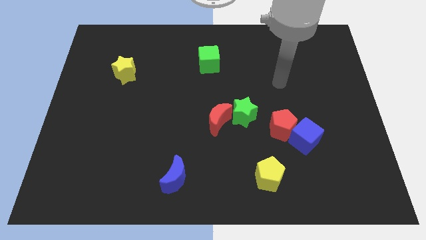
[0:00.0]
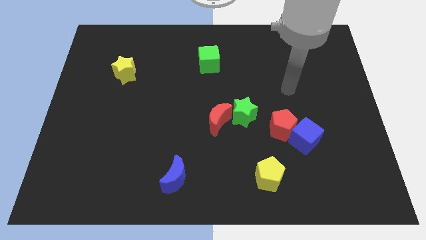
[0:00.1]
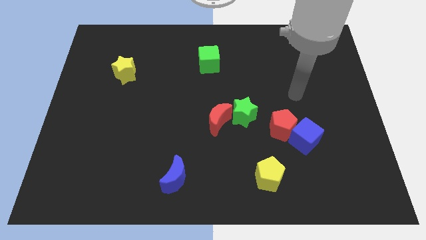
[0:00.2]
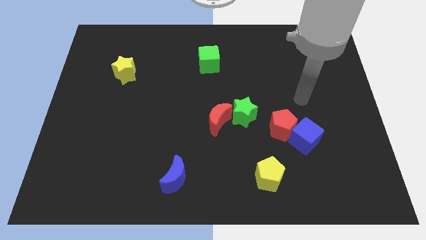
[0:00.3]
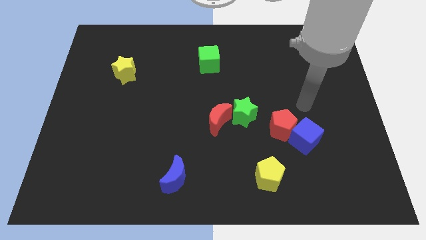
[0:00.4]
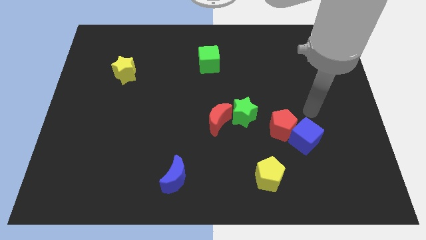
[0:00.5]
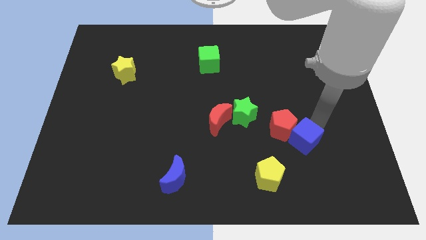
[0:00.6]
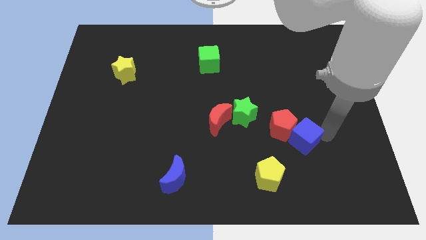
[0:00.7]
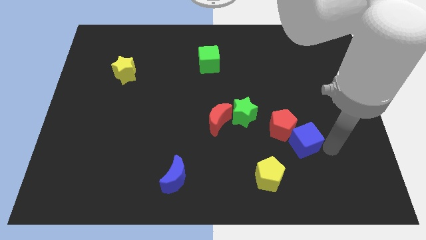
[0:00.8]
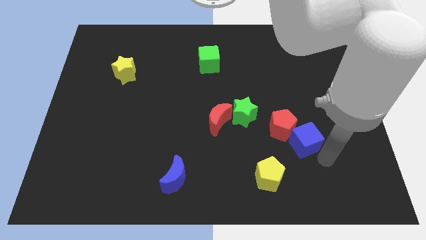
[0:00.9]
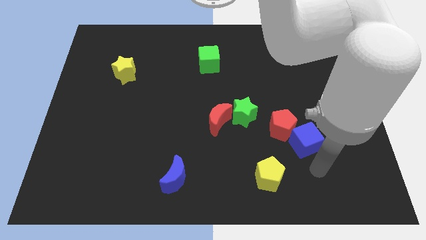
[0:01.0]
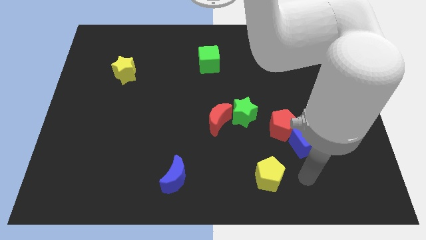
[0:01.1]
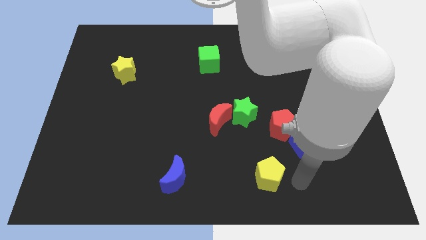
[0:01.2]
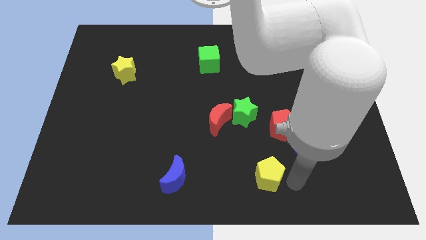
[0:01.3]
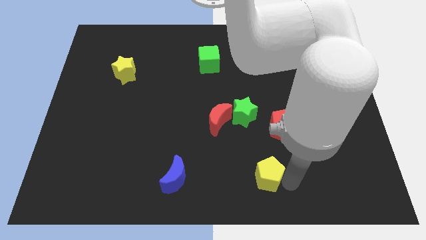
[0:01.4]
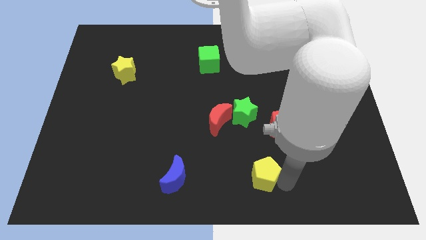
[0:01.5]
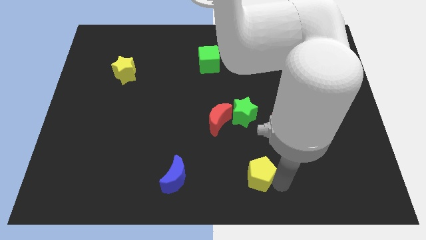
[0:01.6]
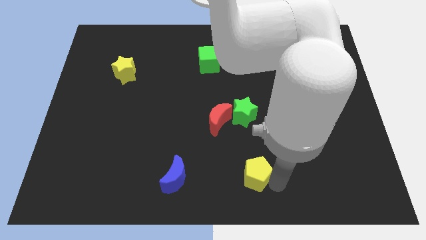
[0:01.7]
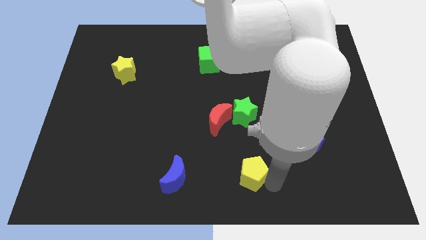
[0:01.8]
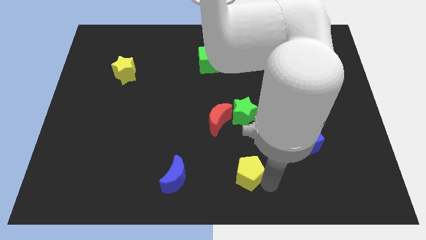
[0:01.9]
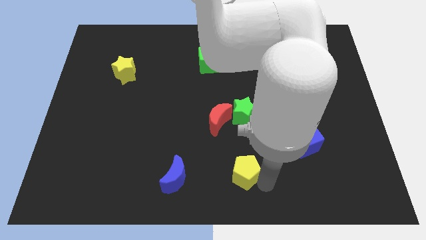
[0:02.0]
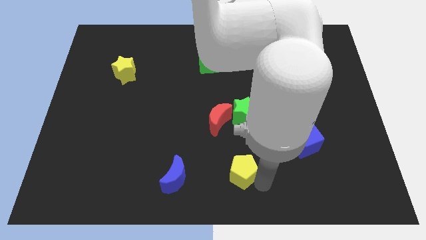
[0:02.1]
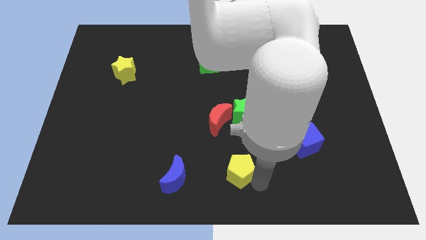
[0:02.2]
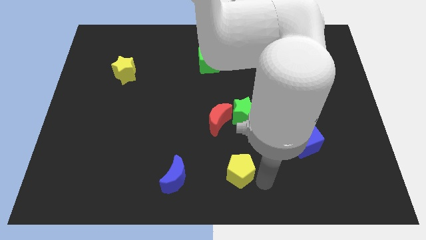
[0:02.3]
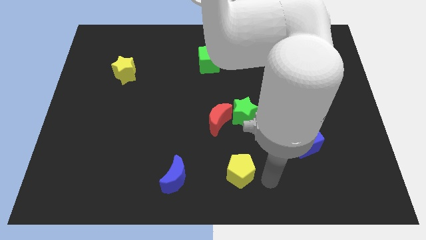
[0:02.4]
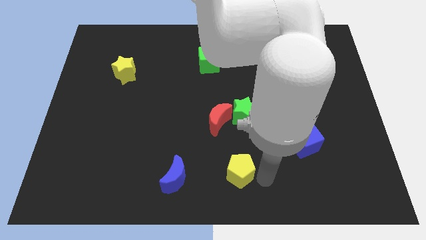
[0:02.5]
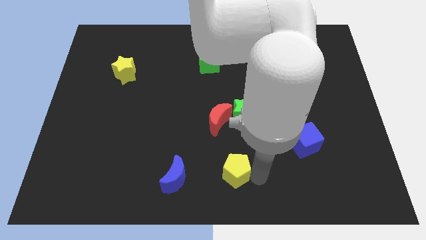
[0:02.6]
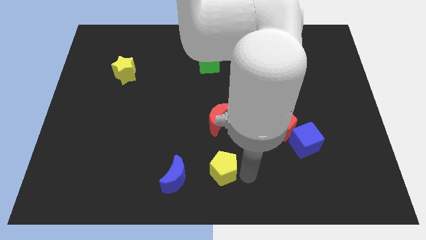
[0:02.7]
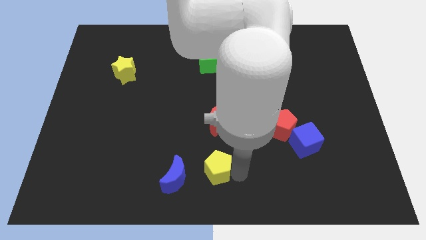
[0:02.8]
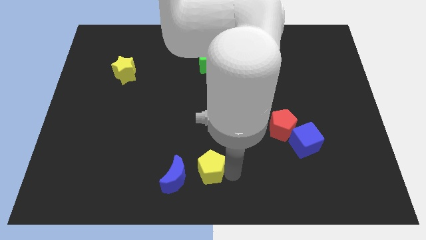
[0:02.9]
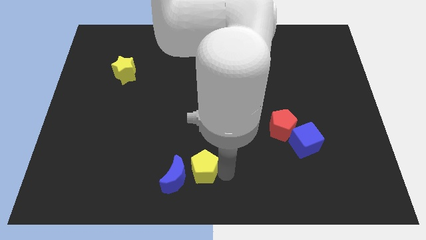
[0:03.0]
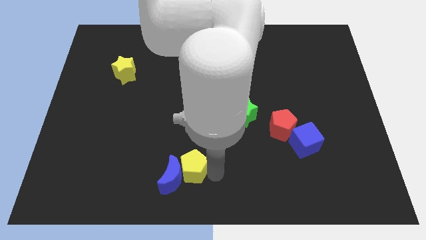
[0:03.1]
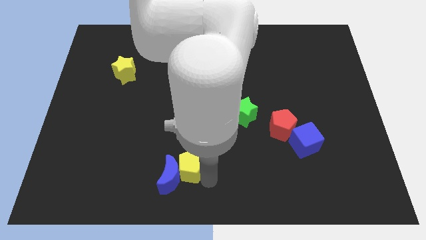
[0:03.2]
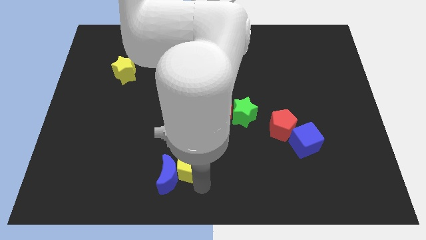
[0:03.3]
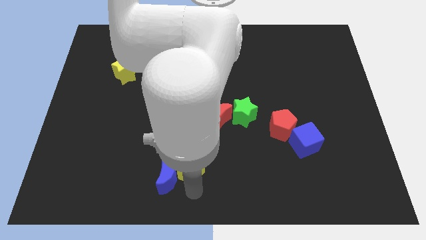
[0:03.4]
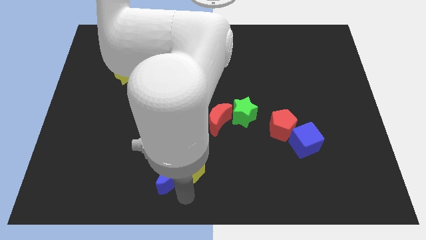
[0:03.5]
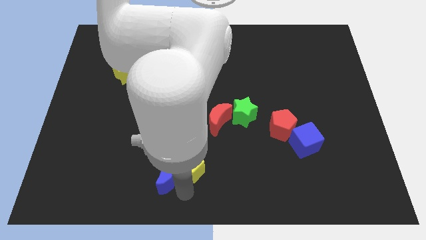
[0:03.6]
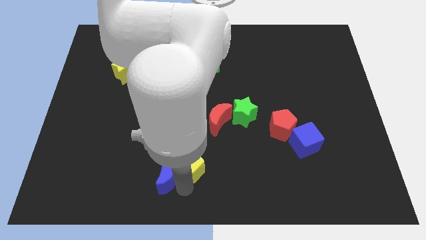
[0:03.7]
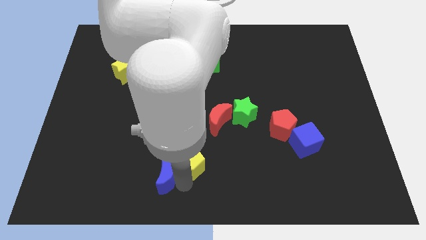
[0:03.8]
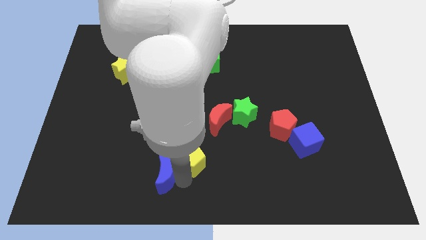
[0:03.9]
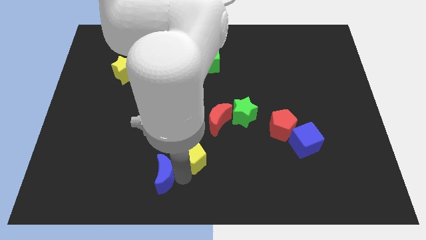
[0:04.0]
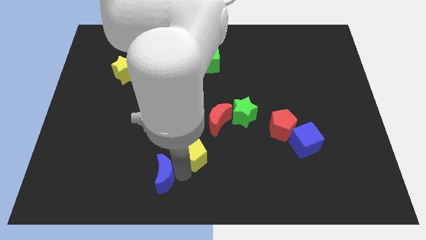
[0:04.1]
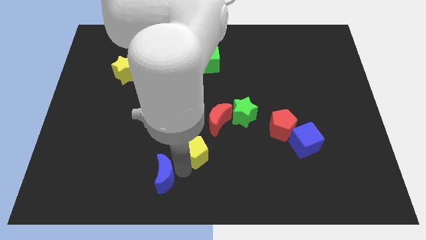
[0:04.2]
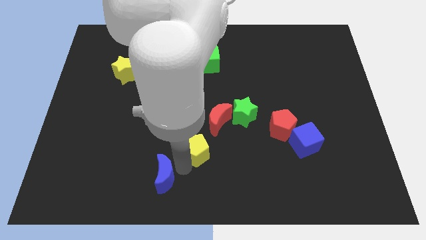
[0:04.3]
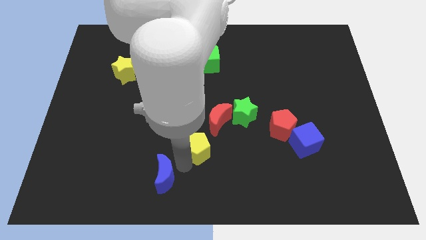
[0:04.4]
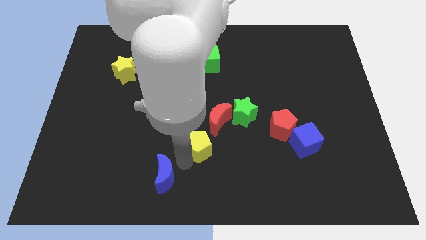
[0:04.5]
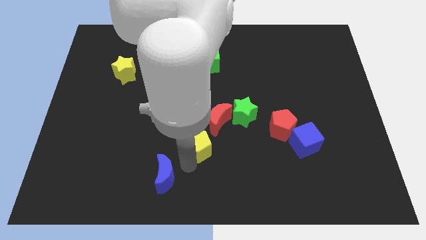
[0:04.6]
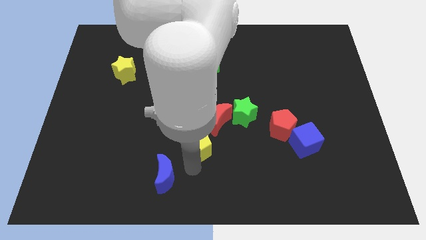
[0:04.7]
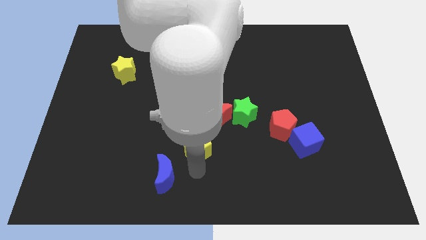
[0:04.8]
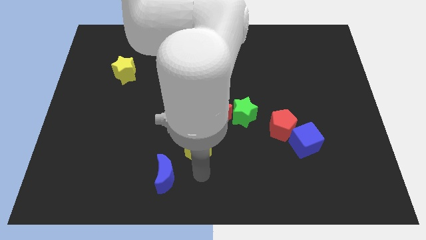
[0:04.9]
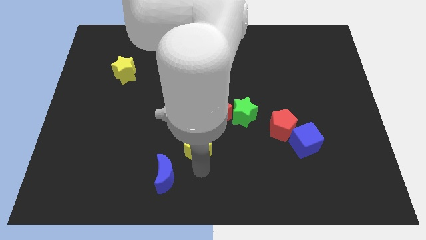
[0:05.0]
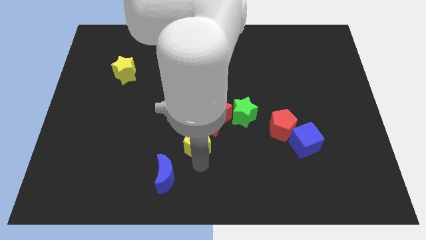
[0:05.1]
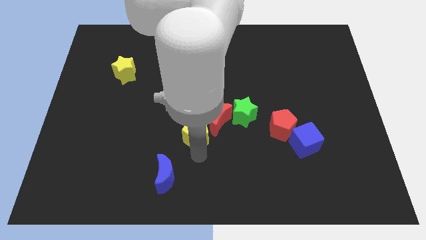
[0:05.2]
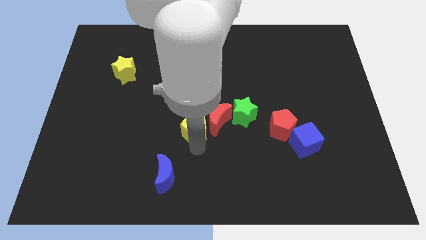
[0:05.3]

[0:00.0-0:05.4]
put the yellow pentagon to the left of the green star

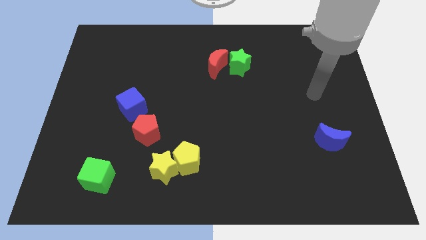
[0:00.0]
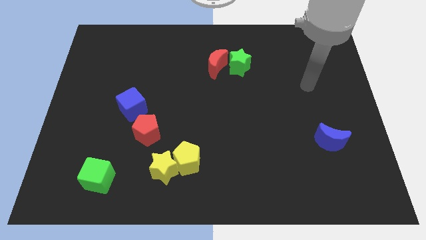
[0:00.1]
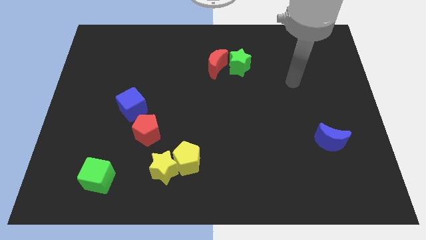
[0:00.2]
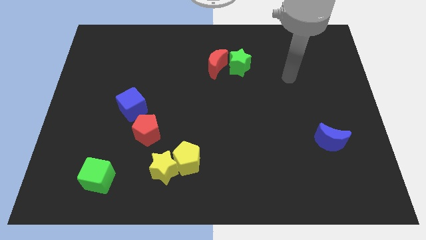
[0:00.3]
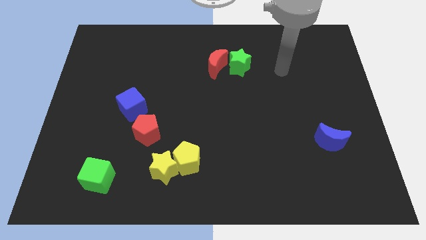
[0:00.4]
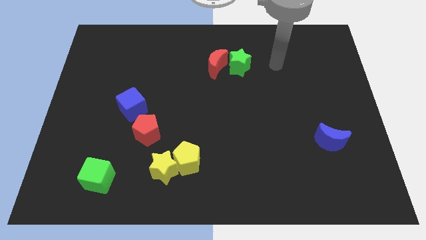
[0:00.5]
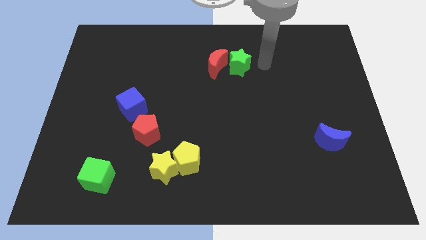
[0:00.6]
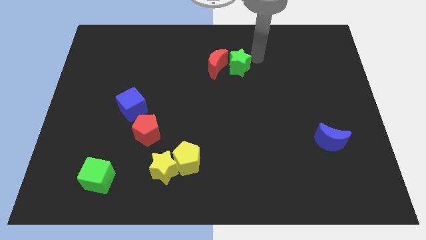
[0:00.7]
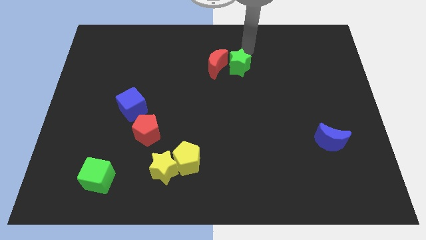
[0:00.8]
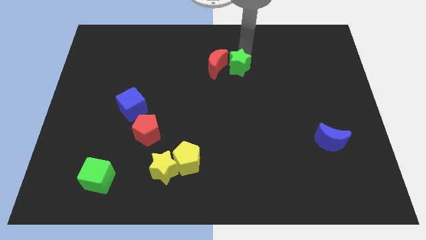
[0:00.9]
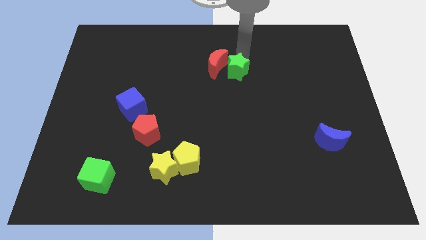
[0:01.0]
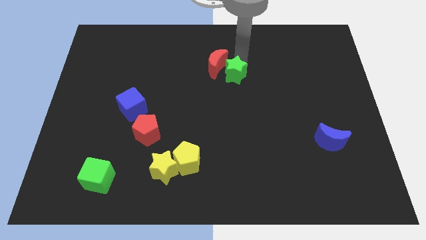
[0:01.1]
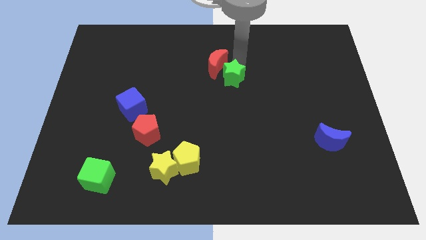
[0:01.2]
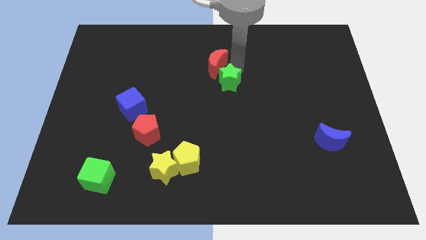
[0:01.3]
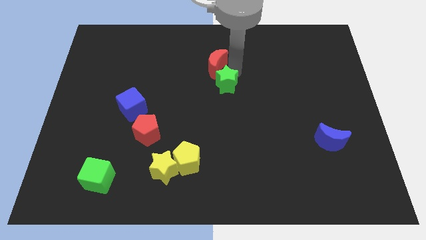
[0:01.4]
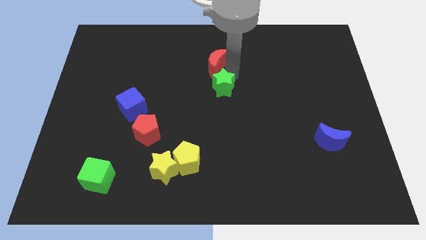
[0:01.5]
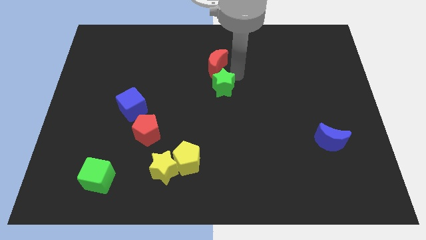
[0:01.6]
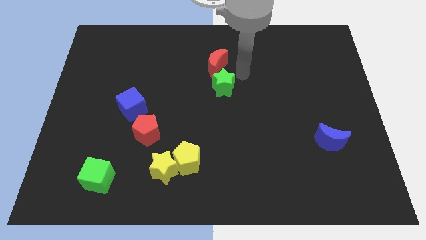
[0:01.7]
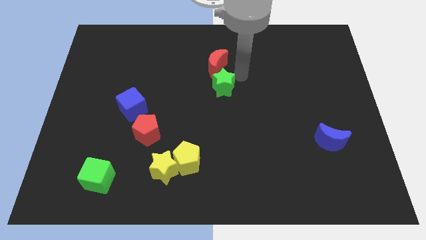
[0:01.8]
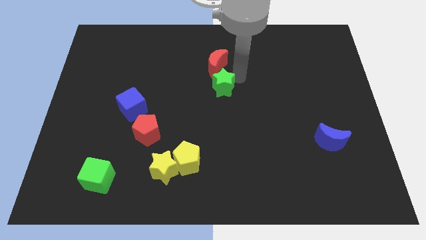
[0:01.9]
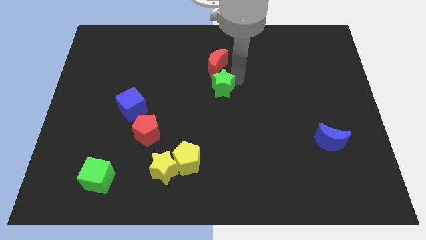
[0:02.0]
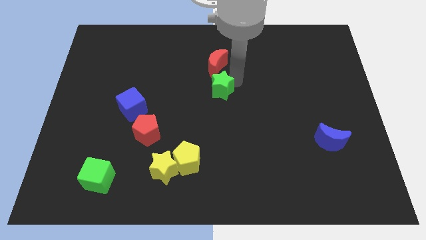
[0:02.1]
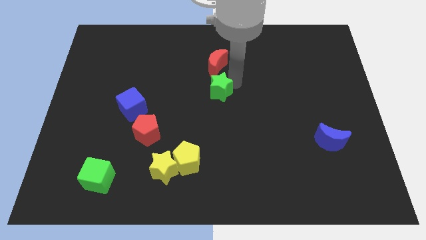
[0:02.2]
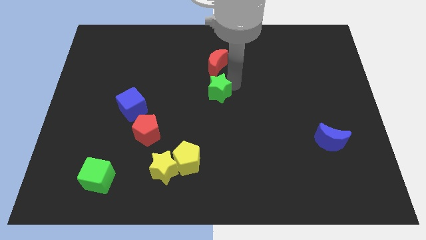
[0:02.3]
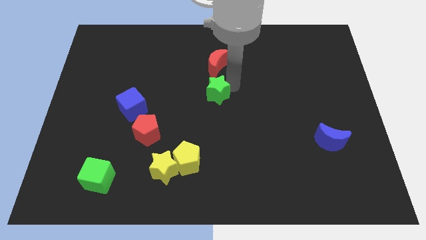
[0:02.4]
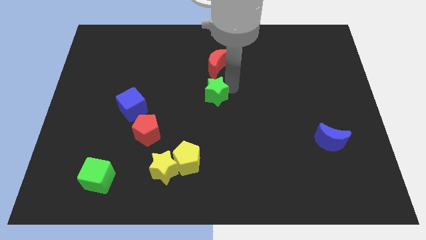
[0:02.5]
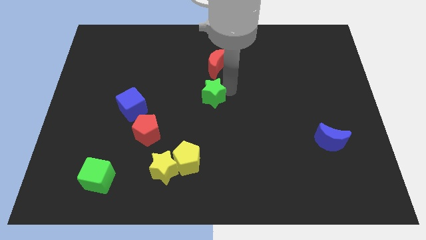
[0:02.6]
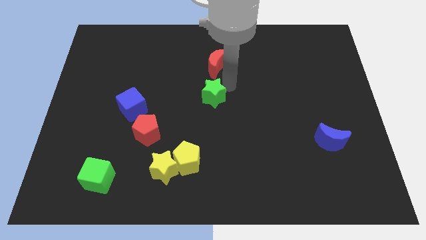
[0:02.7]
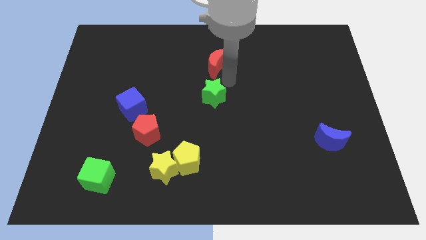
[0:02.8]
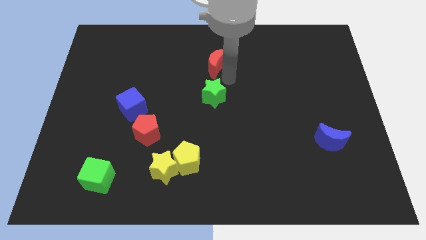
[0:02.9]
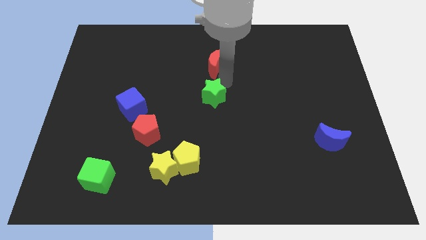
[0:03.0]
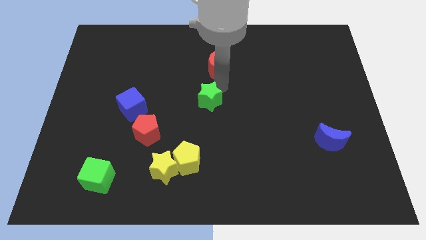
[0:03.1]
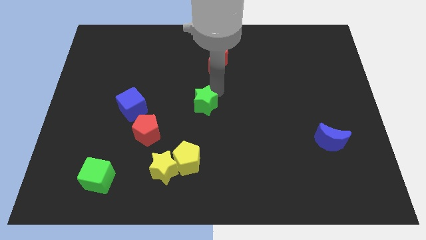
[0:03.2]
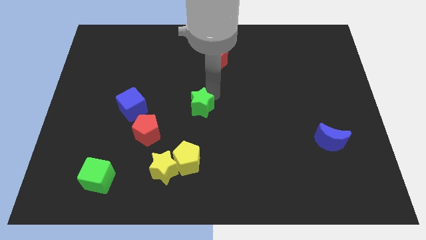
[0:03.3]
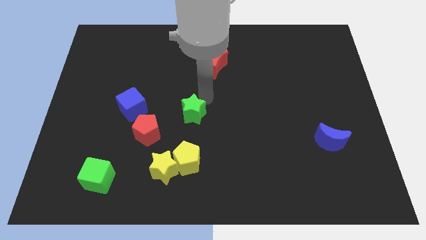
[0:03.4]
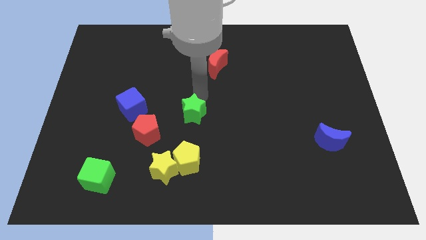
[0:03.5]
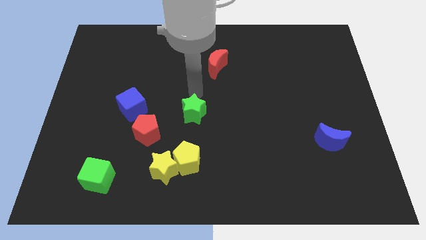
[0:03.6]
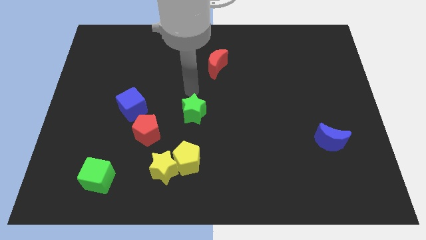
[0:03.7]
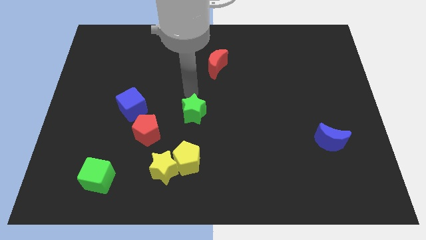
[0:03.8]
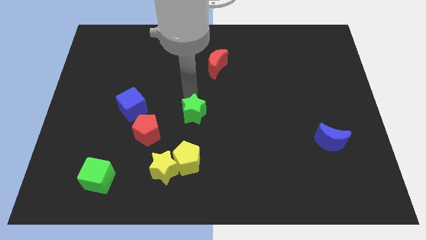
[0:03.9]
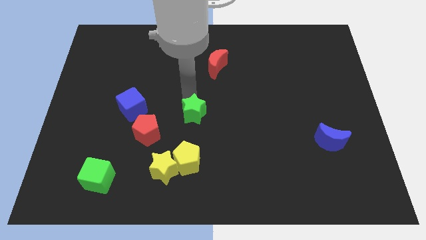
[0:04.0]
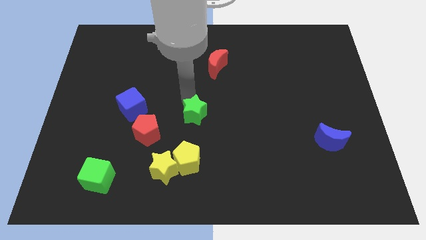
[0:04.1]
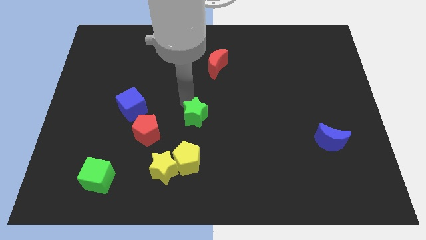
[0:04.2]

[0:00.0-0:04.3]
push the green star just right of the red pentagon
